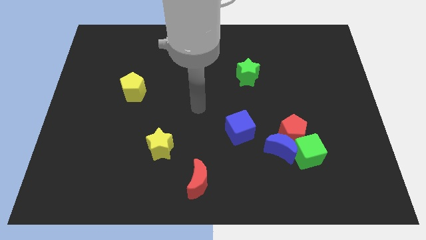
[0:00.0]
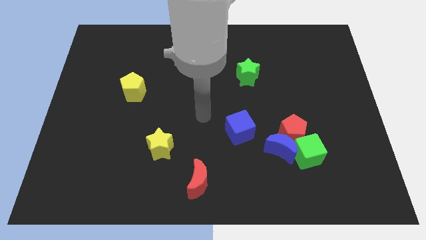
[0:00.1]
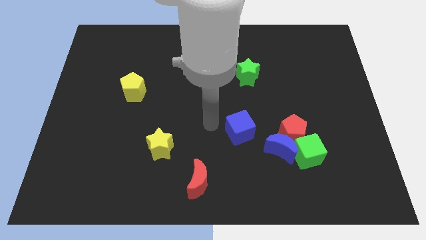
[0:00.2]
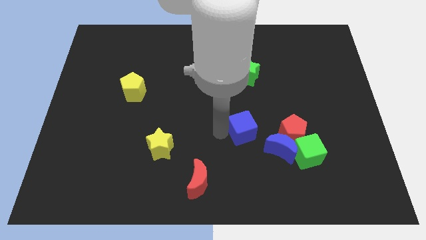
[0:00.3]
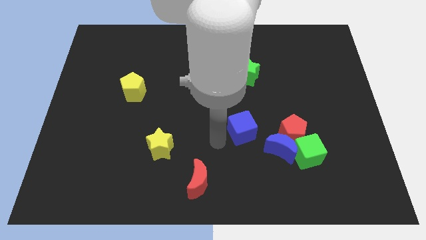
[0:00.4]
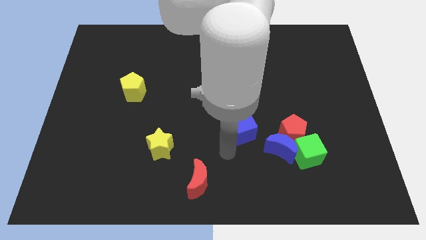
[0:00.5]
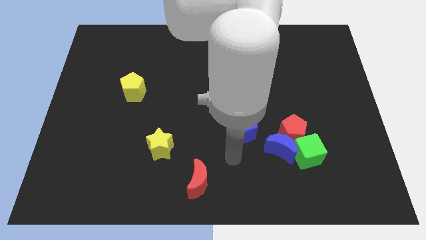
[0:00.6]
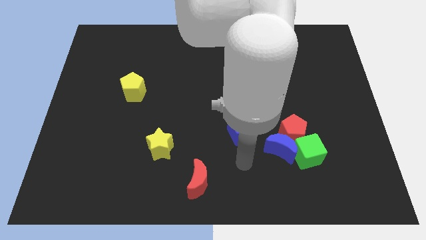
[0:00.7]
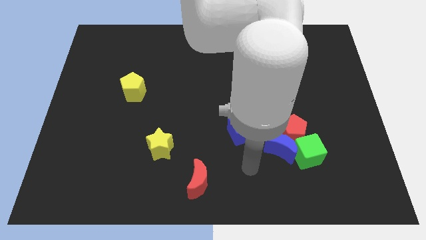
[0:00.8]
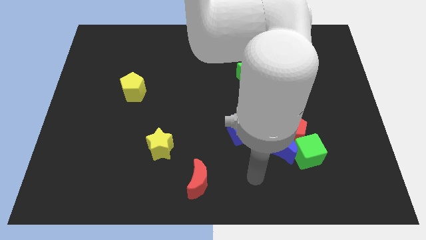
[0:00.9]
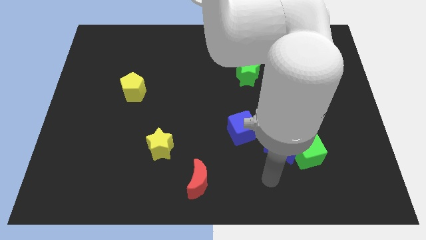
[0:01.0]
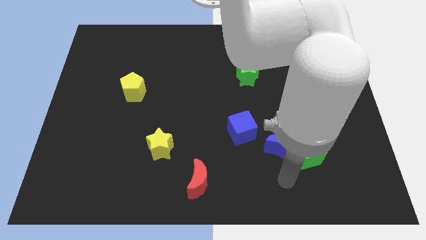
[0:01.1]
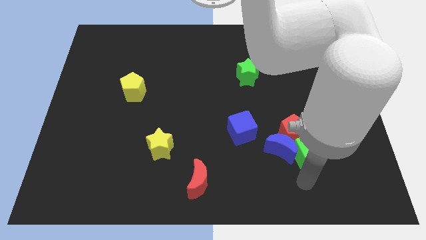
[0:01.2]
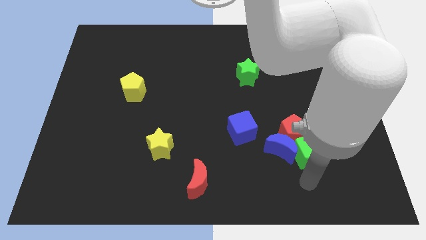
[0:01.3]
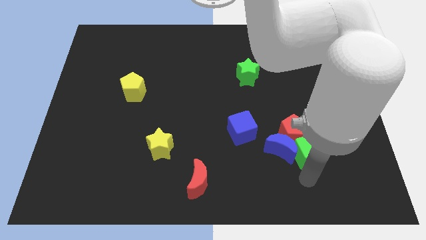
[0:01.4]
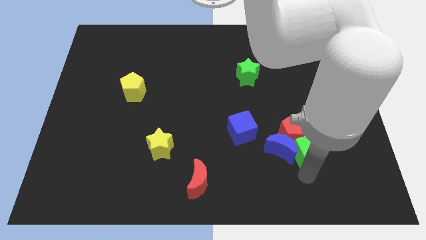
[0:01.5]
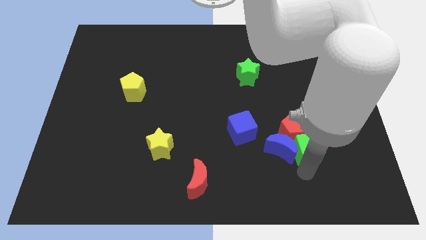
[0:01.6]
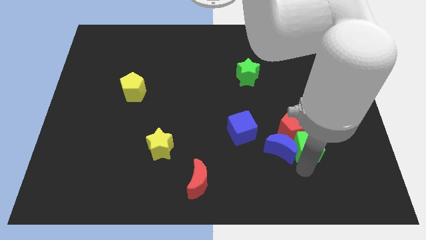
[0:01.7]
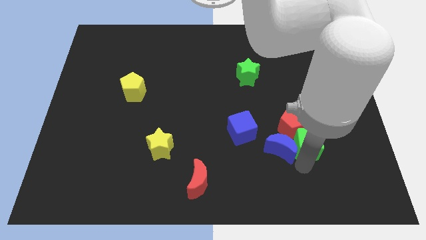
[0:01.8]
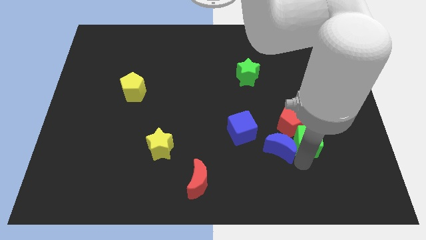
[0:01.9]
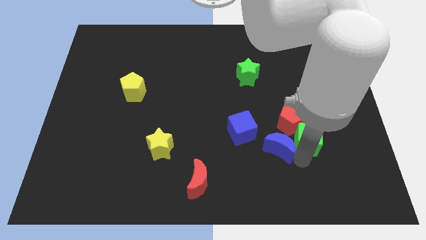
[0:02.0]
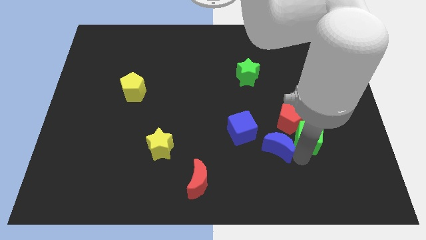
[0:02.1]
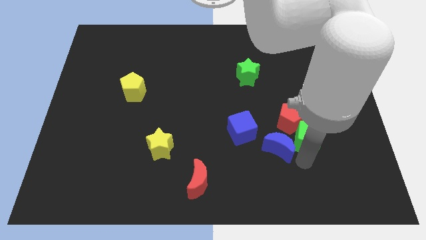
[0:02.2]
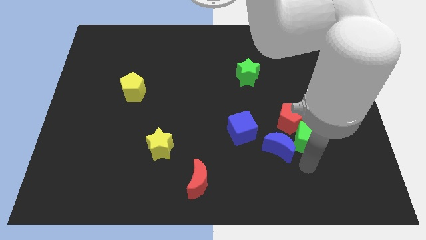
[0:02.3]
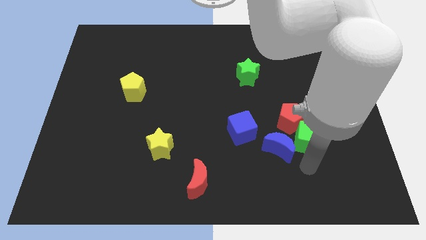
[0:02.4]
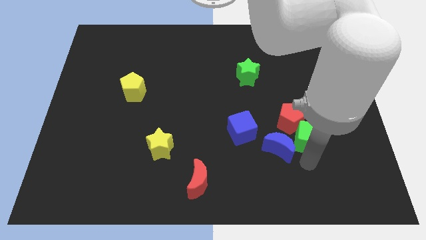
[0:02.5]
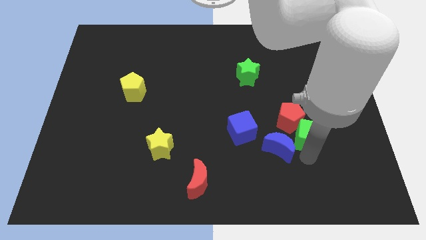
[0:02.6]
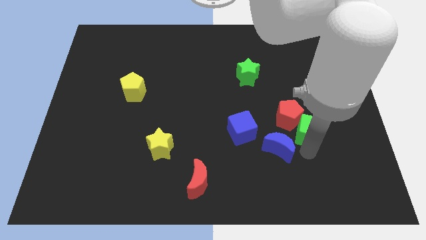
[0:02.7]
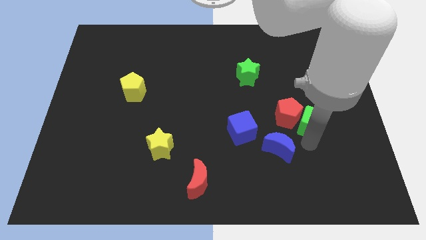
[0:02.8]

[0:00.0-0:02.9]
move the green cube somewhat upwards

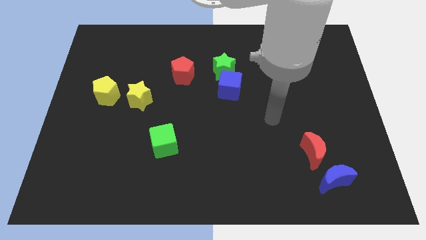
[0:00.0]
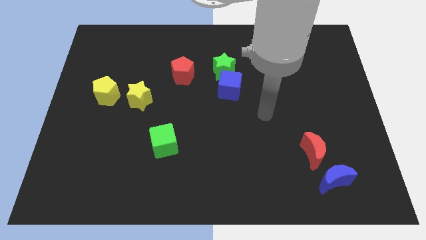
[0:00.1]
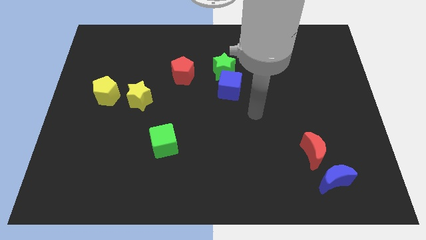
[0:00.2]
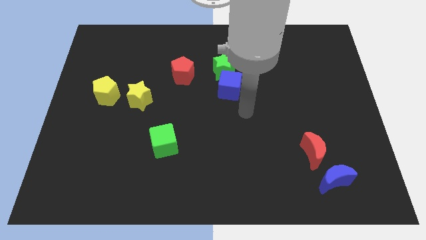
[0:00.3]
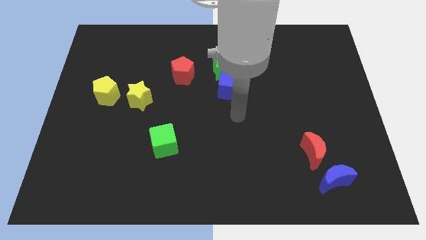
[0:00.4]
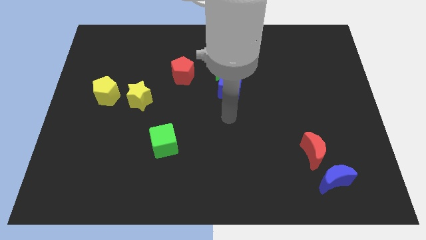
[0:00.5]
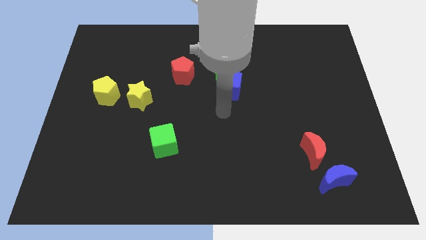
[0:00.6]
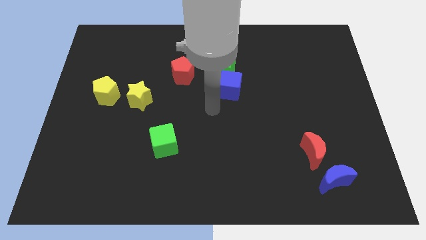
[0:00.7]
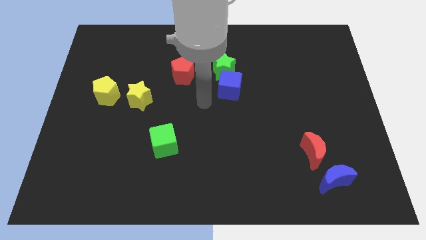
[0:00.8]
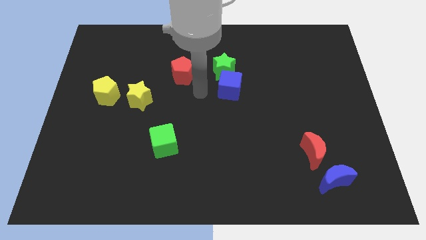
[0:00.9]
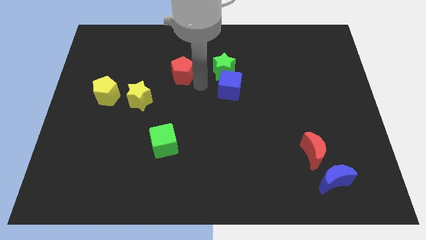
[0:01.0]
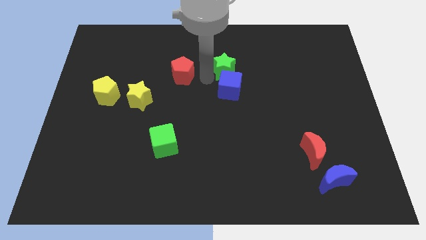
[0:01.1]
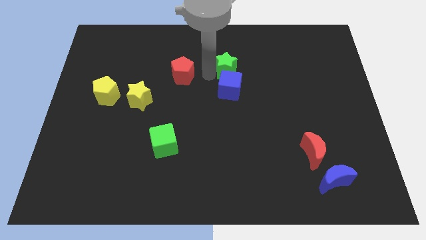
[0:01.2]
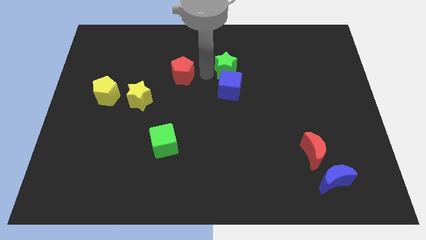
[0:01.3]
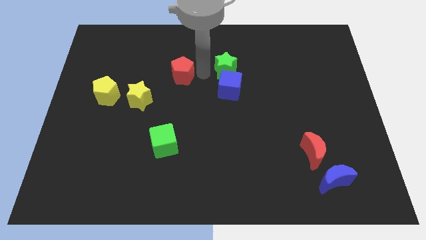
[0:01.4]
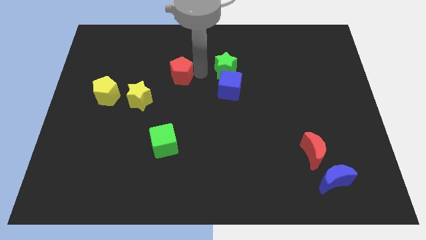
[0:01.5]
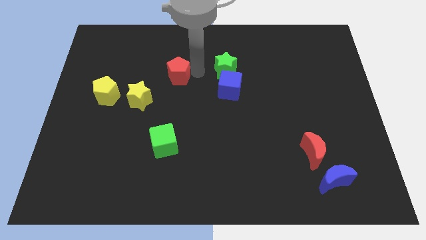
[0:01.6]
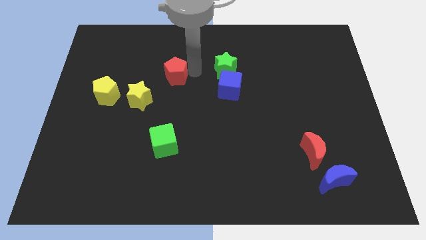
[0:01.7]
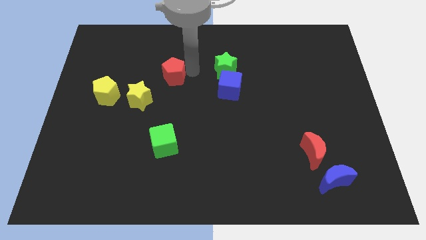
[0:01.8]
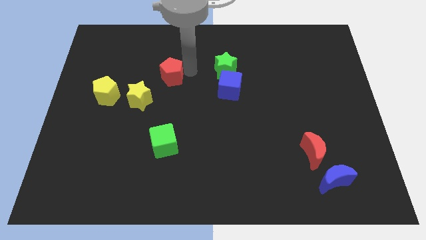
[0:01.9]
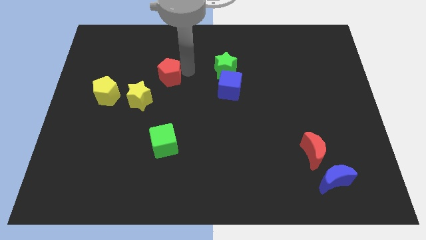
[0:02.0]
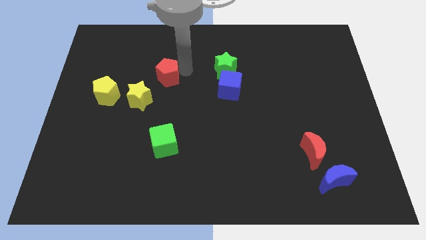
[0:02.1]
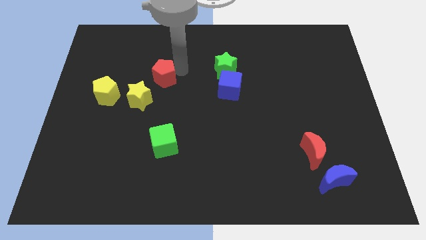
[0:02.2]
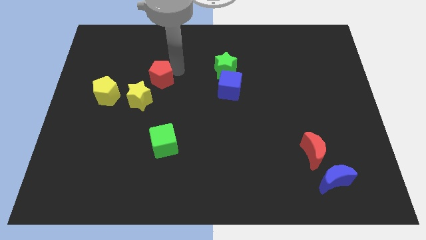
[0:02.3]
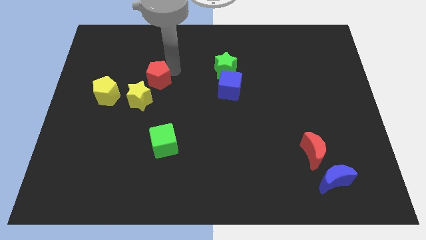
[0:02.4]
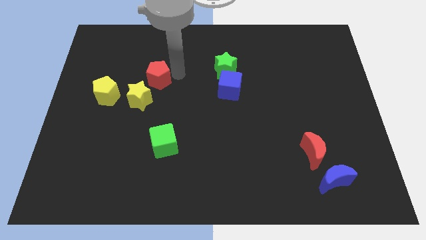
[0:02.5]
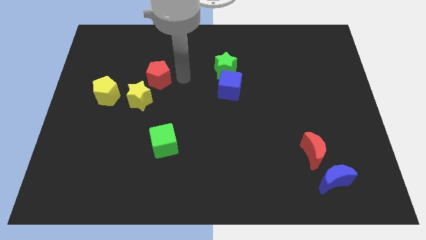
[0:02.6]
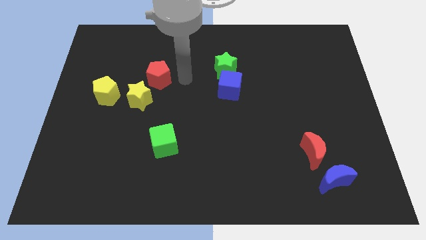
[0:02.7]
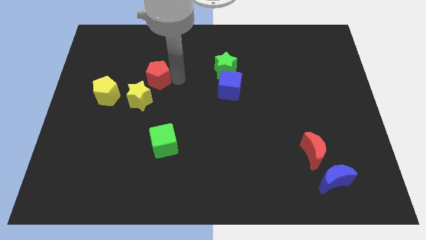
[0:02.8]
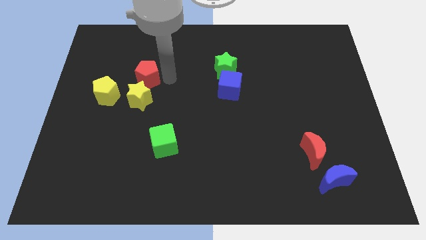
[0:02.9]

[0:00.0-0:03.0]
move the red pentagon left a little

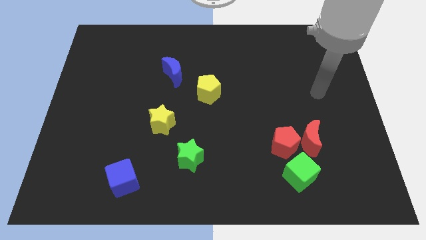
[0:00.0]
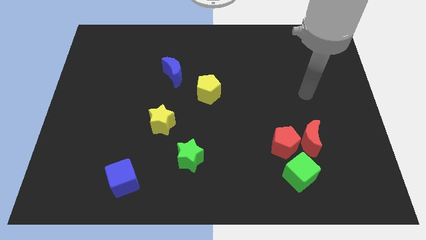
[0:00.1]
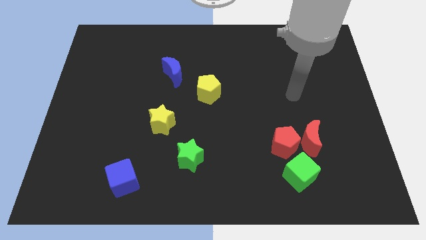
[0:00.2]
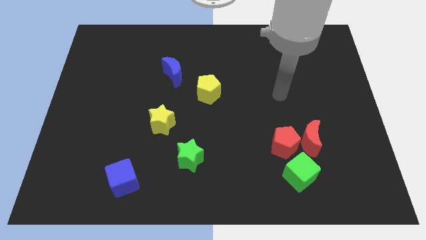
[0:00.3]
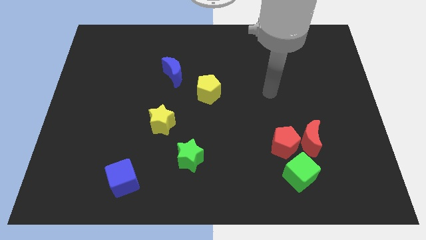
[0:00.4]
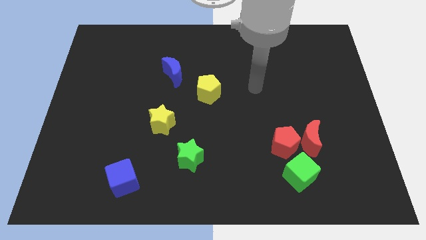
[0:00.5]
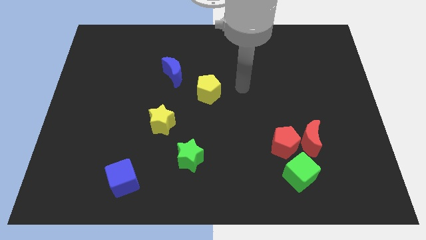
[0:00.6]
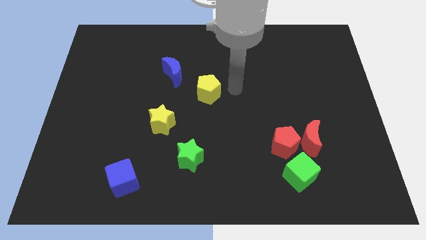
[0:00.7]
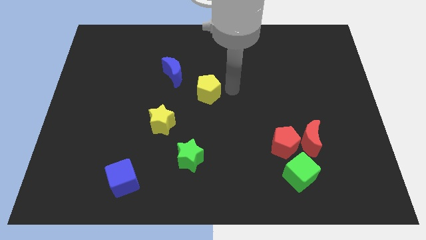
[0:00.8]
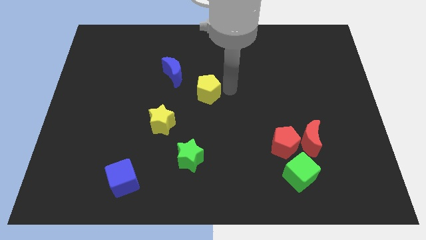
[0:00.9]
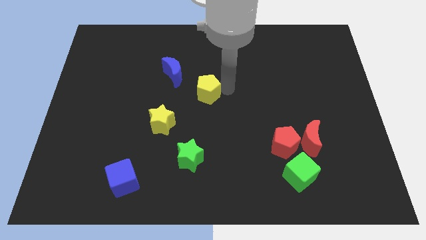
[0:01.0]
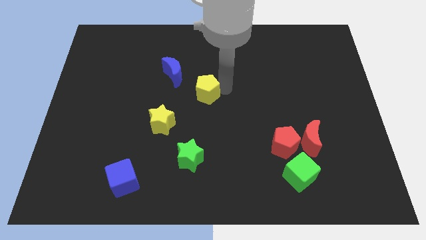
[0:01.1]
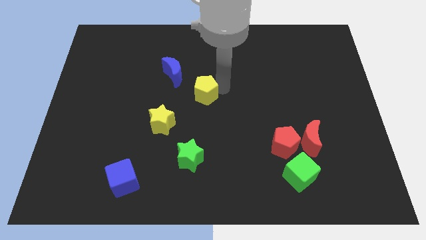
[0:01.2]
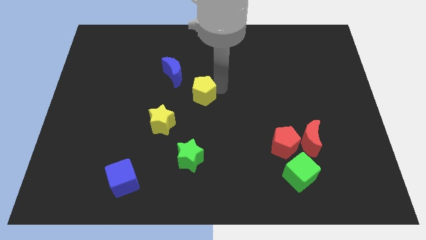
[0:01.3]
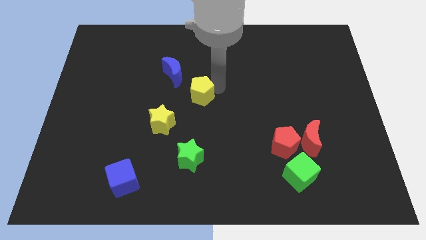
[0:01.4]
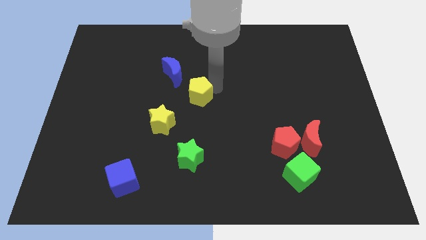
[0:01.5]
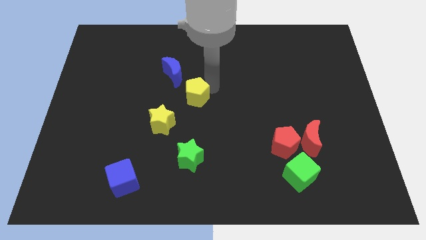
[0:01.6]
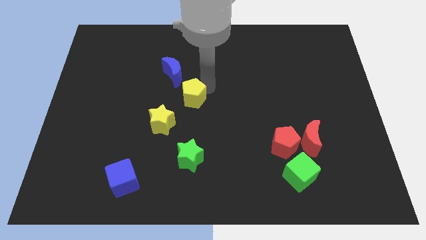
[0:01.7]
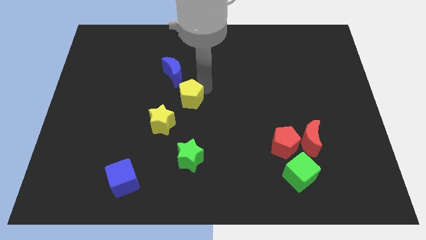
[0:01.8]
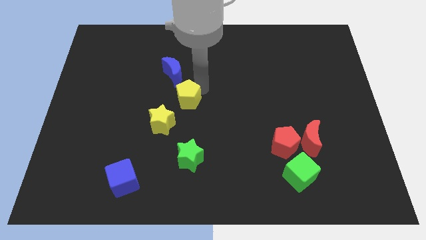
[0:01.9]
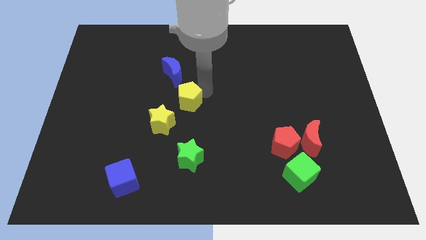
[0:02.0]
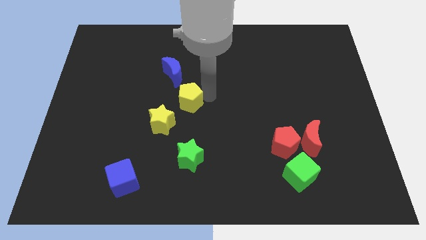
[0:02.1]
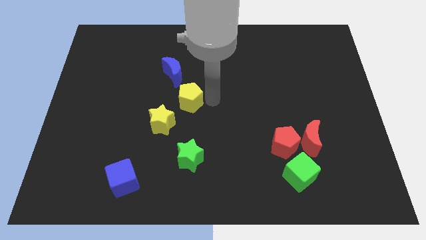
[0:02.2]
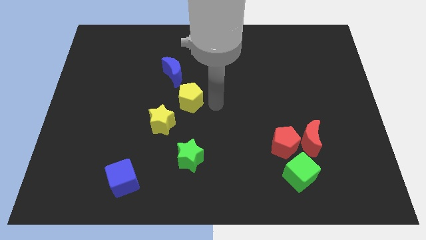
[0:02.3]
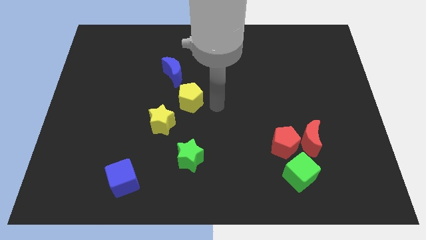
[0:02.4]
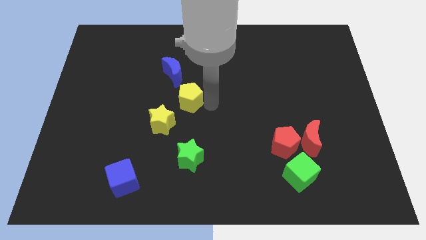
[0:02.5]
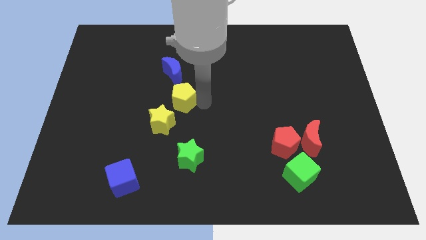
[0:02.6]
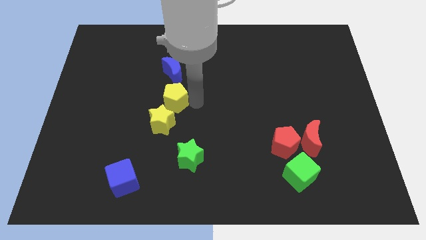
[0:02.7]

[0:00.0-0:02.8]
push the yellow pentagon a bit left

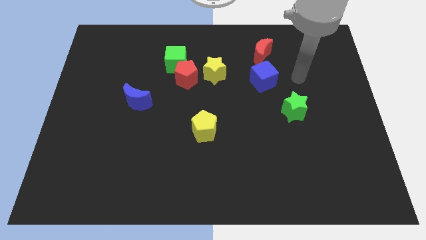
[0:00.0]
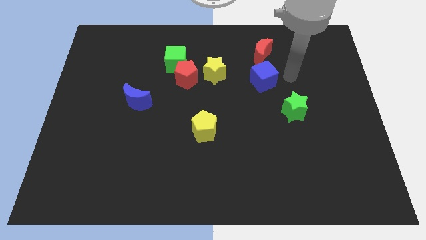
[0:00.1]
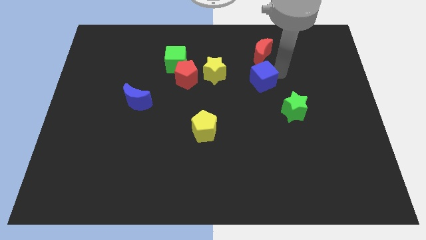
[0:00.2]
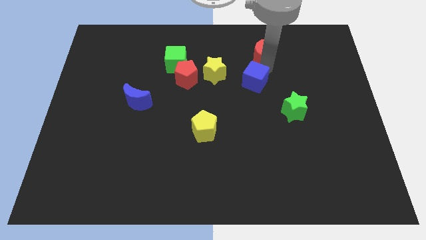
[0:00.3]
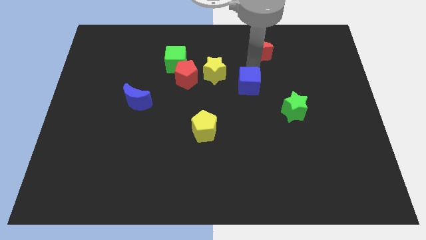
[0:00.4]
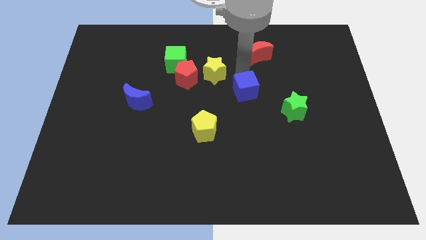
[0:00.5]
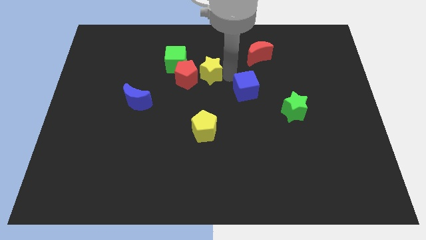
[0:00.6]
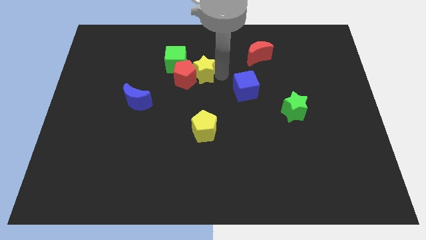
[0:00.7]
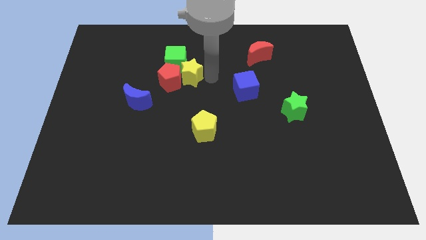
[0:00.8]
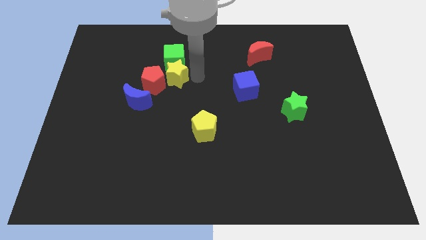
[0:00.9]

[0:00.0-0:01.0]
slightly slide the red pentagon left
